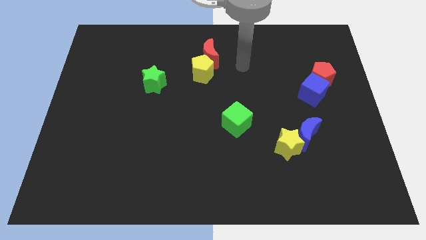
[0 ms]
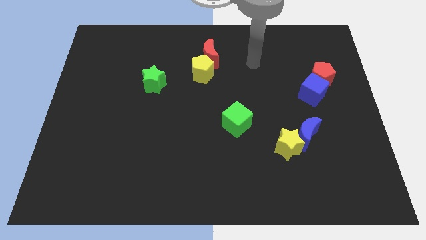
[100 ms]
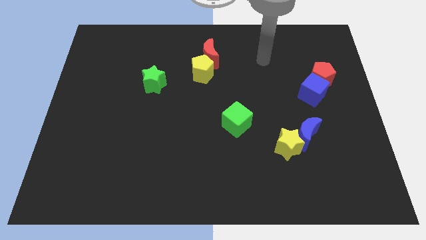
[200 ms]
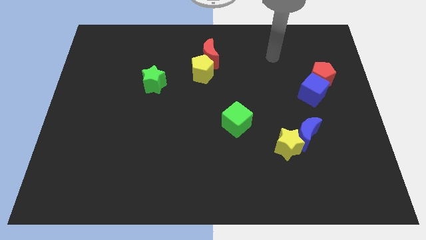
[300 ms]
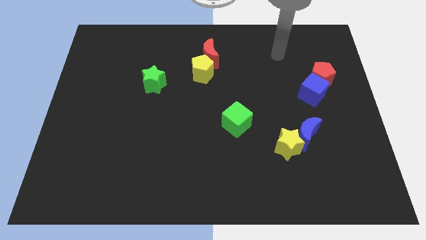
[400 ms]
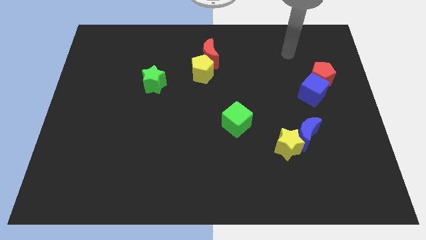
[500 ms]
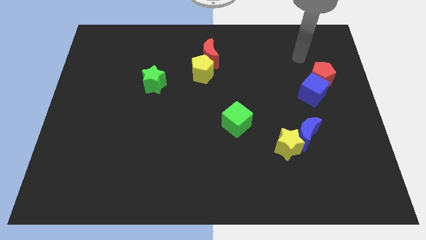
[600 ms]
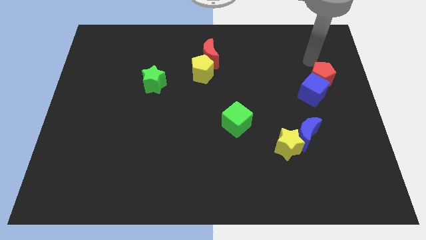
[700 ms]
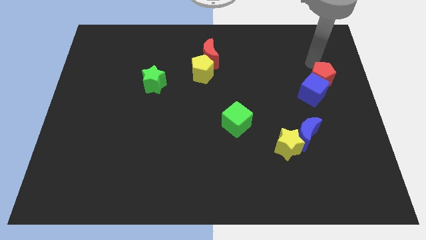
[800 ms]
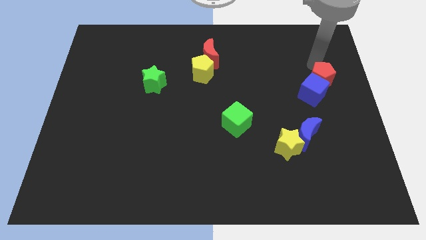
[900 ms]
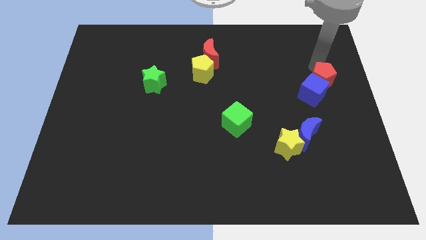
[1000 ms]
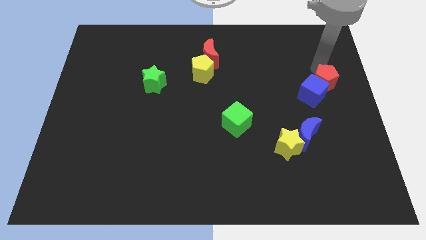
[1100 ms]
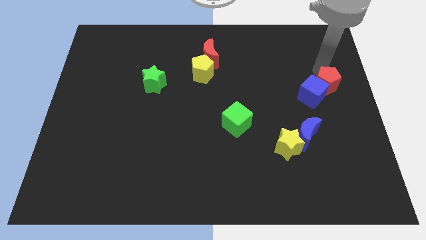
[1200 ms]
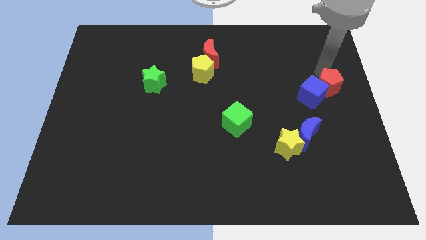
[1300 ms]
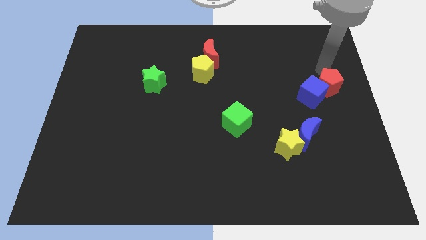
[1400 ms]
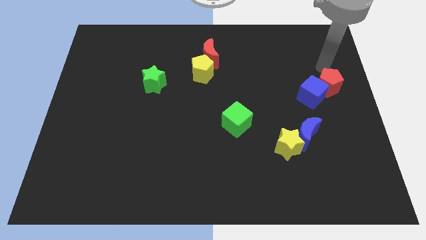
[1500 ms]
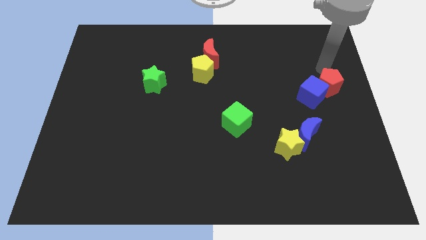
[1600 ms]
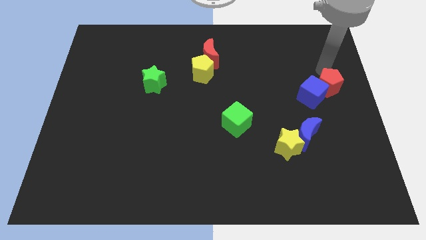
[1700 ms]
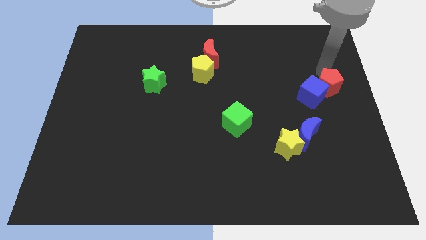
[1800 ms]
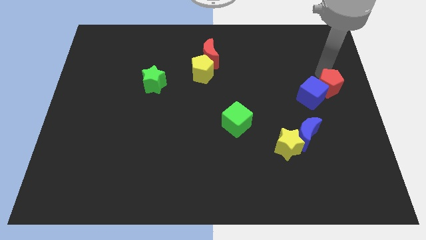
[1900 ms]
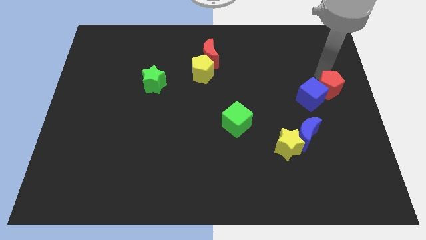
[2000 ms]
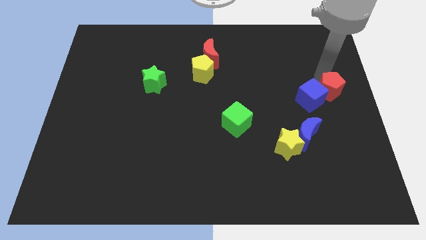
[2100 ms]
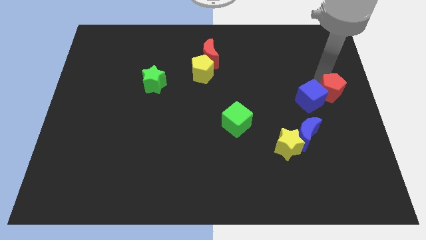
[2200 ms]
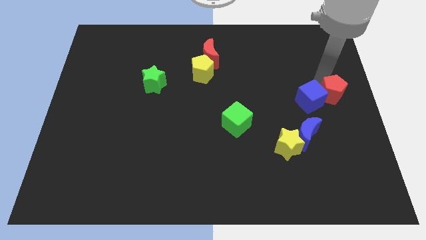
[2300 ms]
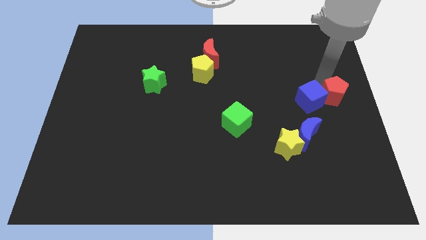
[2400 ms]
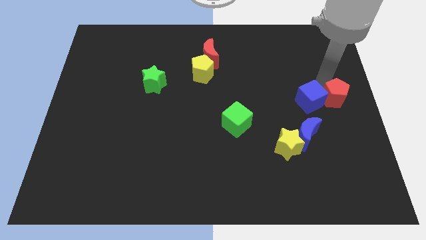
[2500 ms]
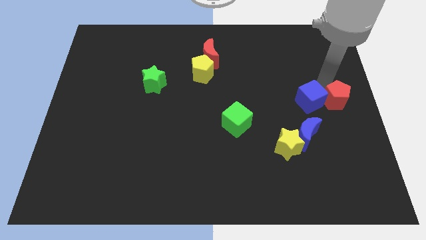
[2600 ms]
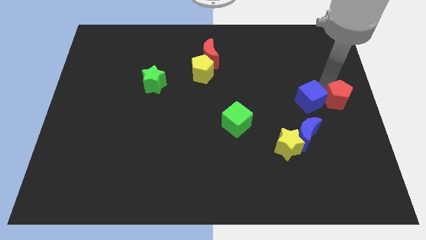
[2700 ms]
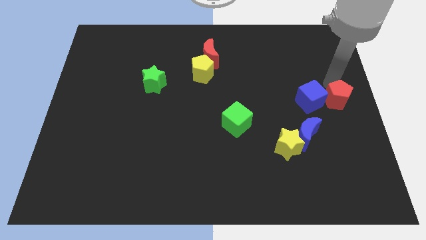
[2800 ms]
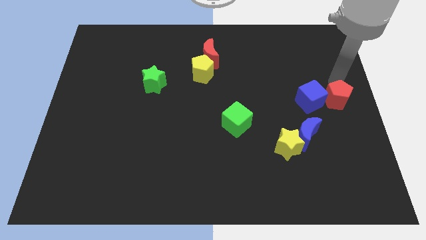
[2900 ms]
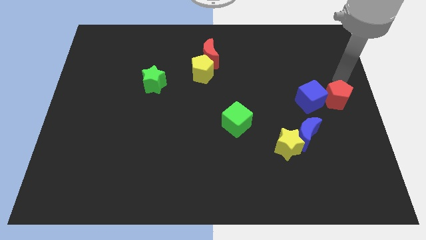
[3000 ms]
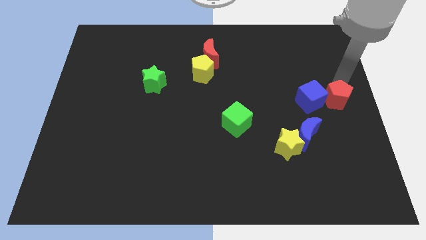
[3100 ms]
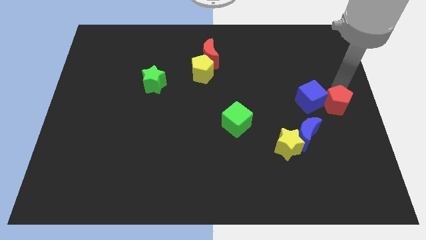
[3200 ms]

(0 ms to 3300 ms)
move the red pentagon downwards slightly

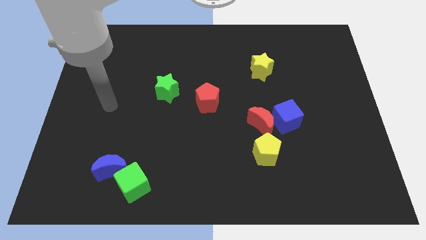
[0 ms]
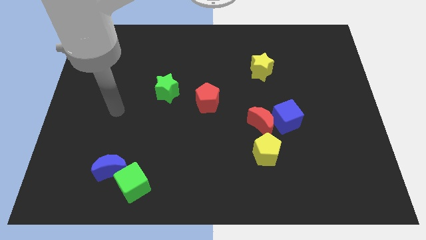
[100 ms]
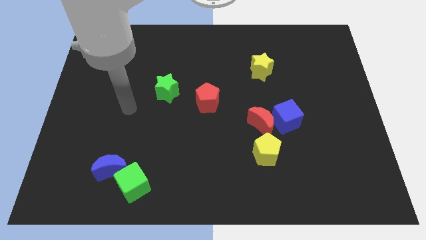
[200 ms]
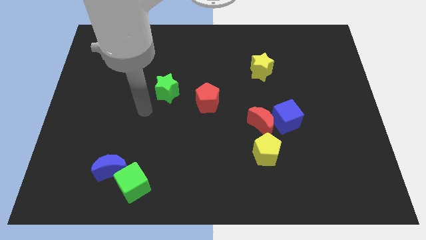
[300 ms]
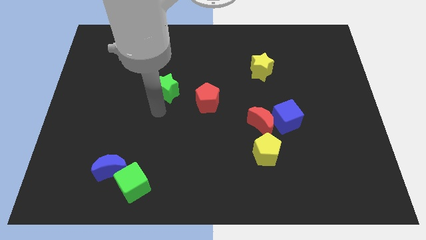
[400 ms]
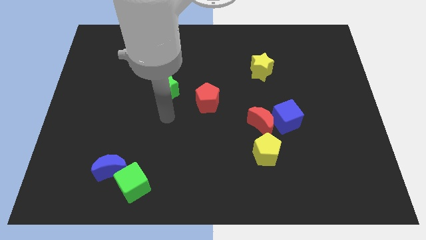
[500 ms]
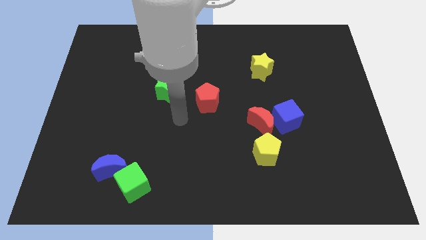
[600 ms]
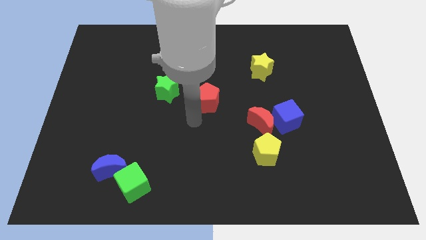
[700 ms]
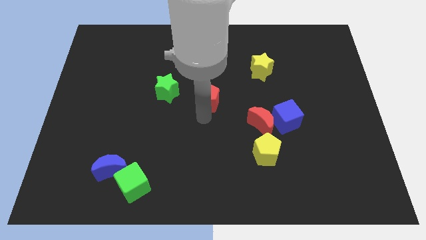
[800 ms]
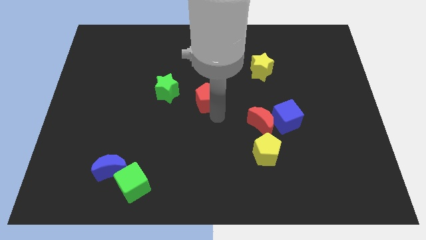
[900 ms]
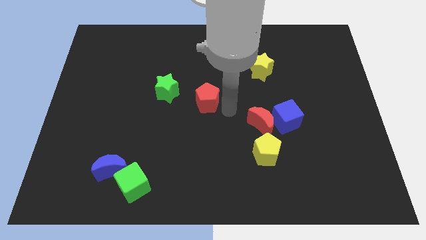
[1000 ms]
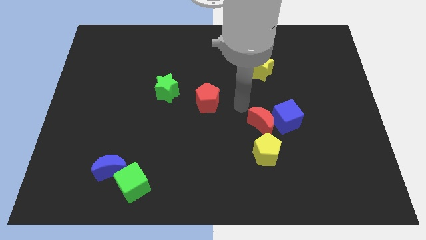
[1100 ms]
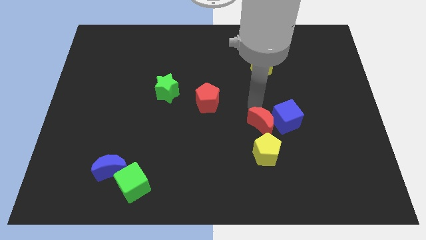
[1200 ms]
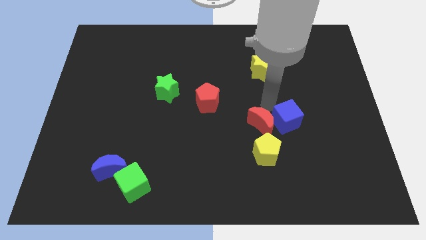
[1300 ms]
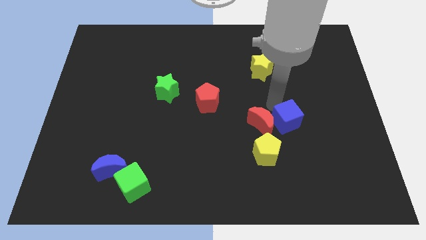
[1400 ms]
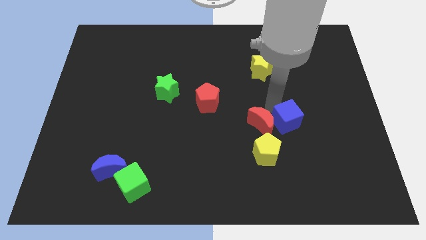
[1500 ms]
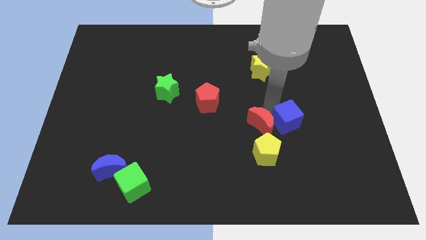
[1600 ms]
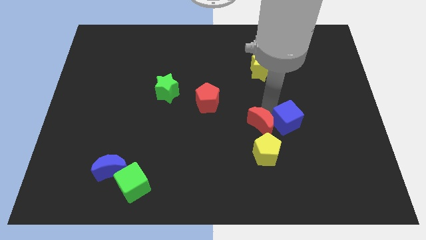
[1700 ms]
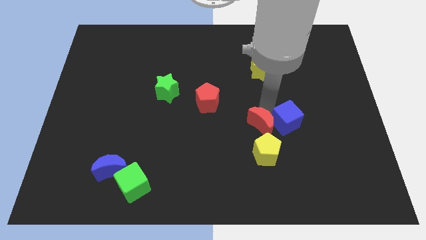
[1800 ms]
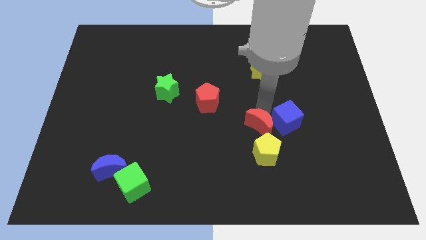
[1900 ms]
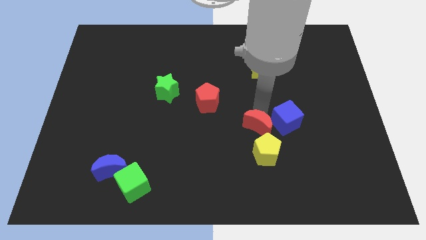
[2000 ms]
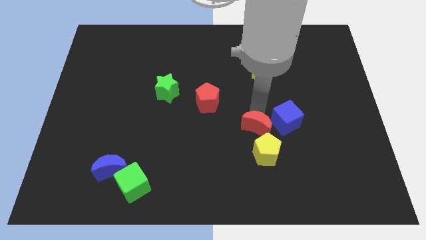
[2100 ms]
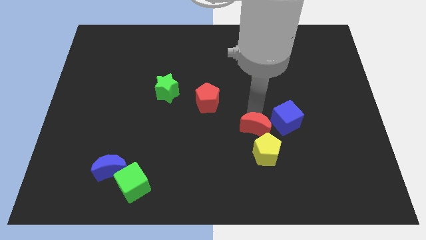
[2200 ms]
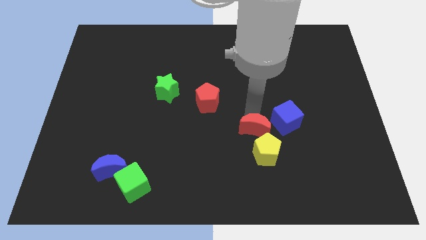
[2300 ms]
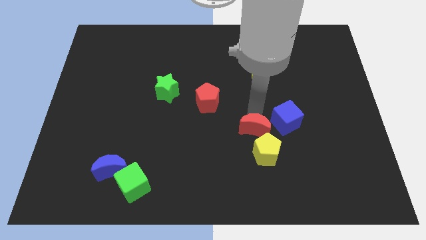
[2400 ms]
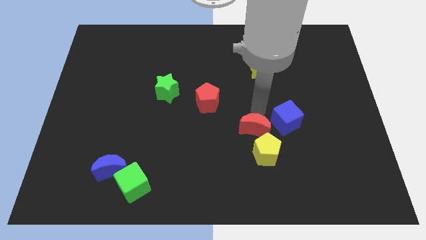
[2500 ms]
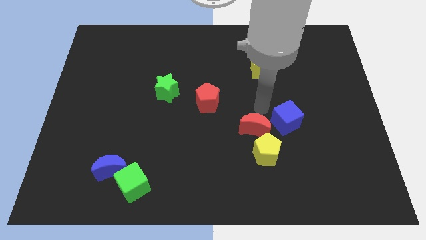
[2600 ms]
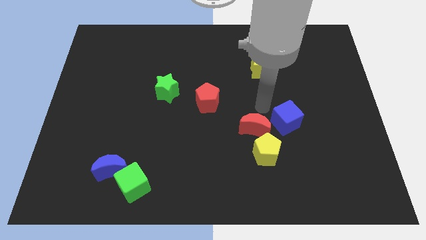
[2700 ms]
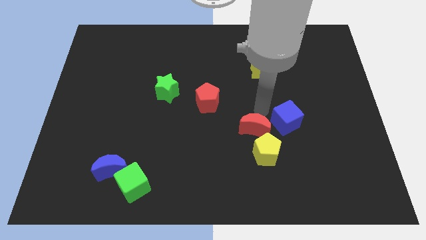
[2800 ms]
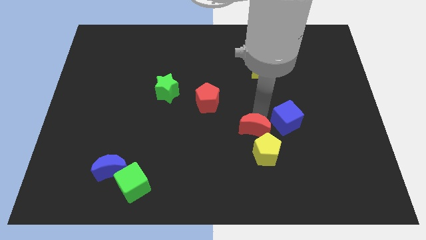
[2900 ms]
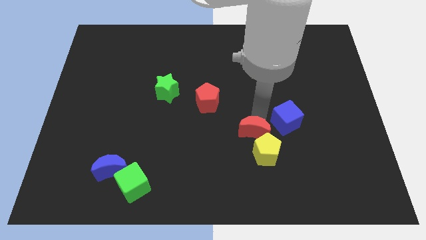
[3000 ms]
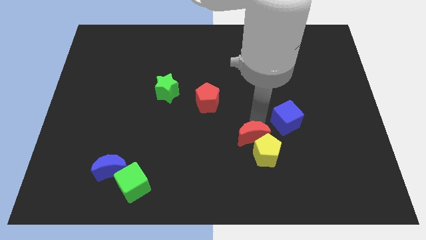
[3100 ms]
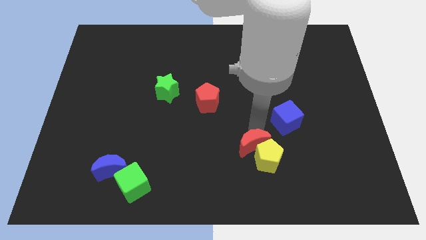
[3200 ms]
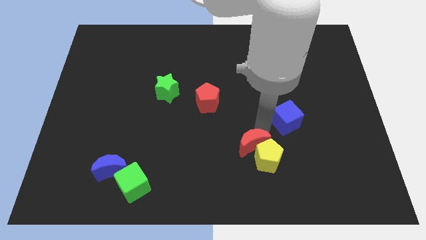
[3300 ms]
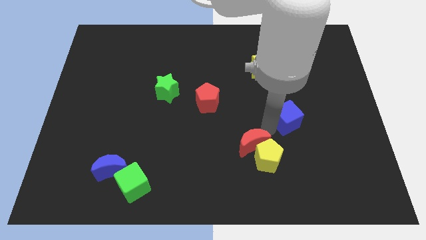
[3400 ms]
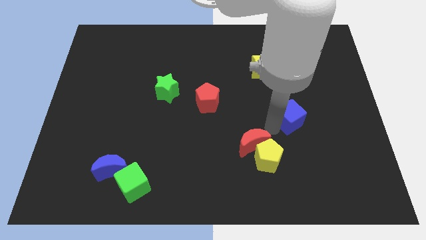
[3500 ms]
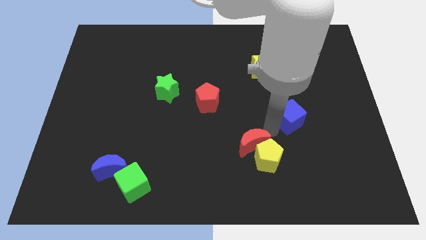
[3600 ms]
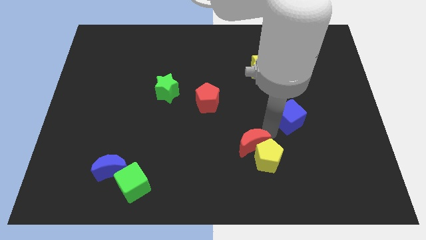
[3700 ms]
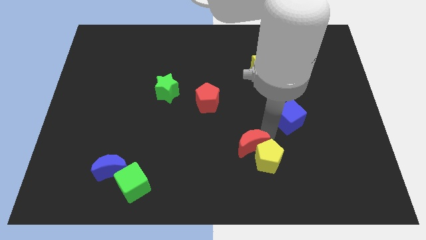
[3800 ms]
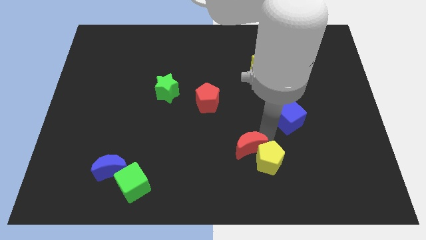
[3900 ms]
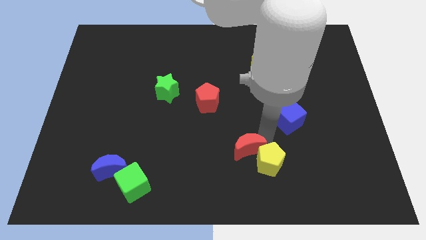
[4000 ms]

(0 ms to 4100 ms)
slightly push the red moon downwards and then left

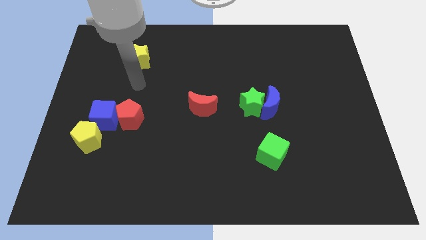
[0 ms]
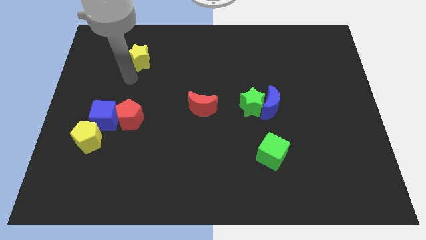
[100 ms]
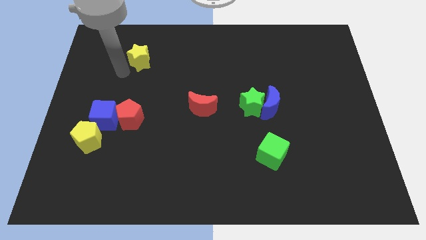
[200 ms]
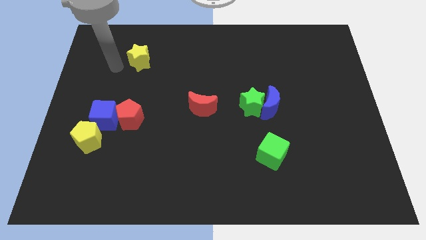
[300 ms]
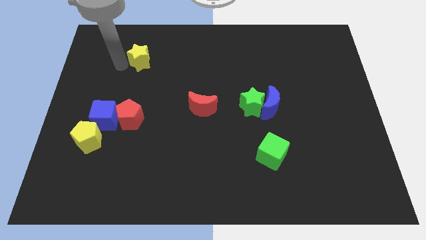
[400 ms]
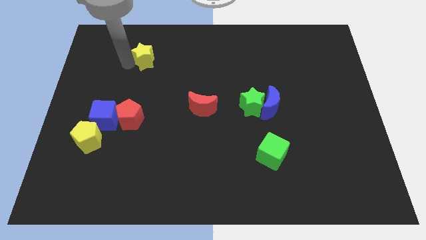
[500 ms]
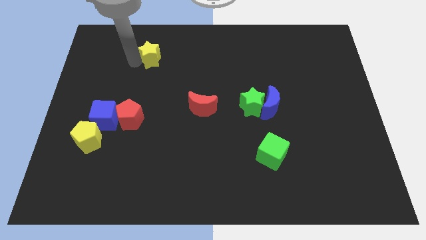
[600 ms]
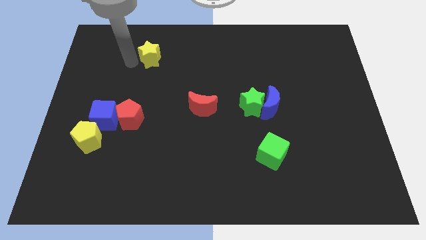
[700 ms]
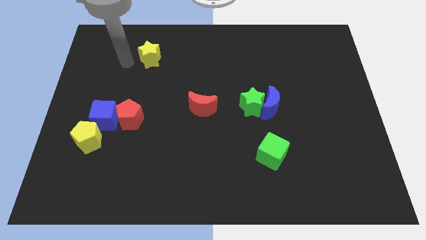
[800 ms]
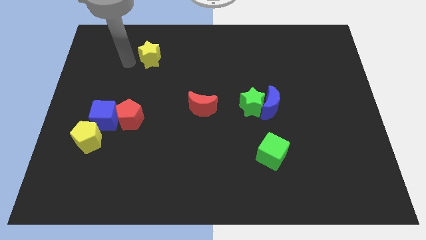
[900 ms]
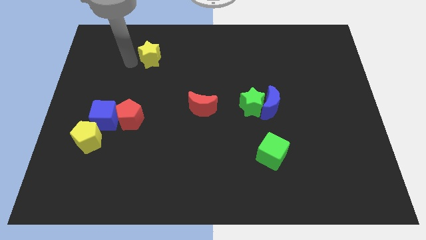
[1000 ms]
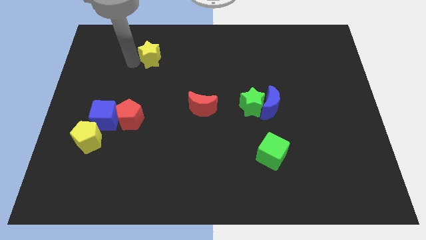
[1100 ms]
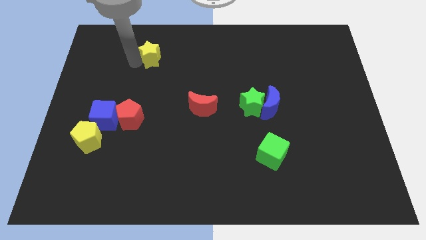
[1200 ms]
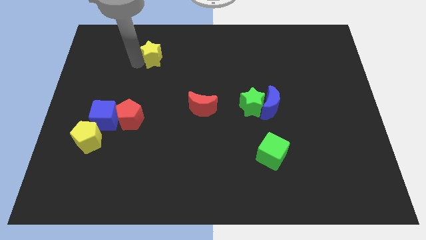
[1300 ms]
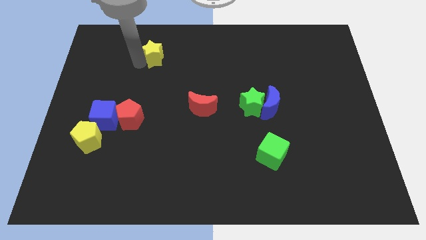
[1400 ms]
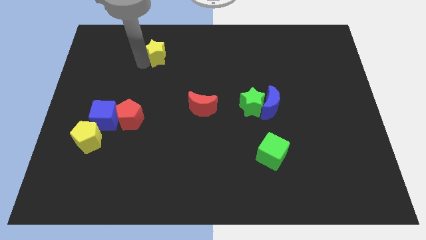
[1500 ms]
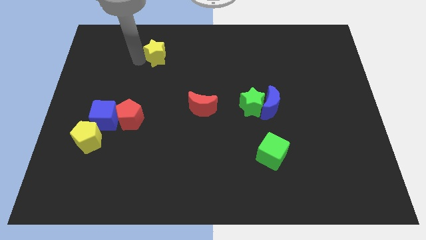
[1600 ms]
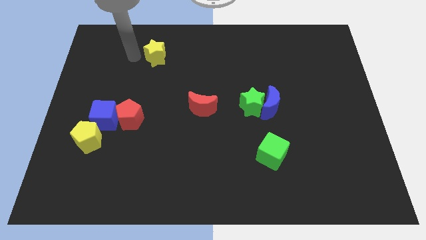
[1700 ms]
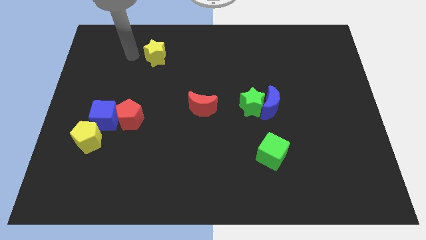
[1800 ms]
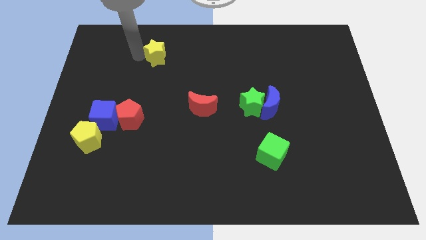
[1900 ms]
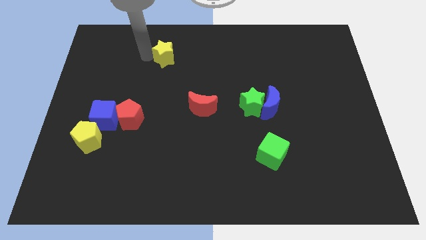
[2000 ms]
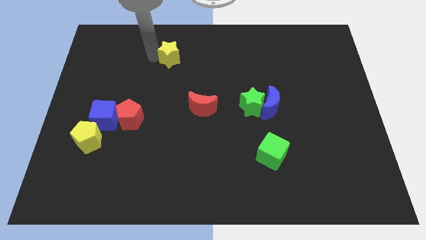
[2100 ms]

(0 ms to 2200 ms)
slightly push the yellow star right
